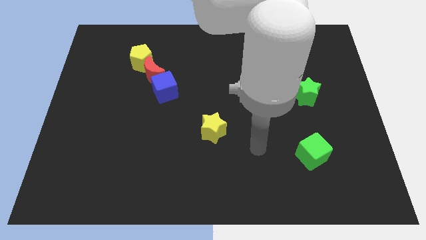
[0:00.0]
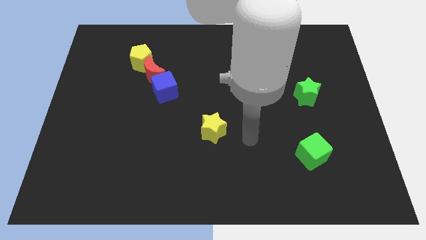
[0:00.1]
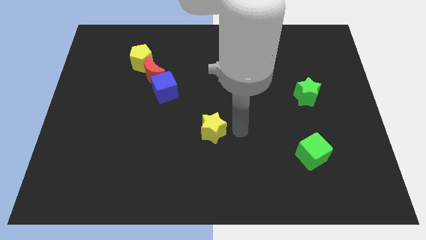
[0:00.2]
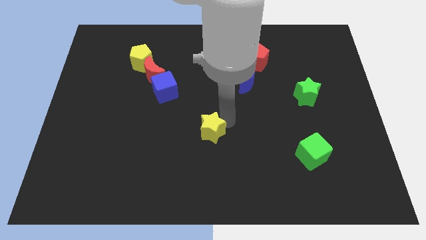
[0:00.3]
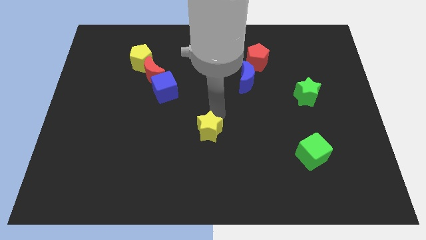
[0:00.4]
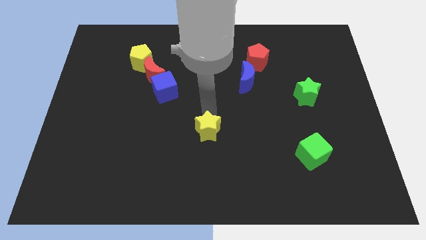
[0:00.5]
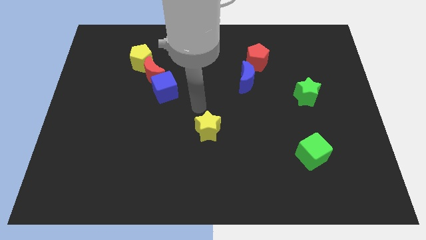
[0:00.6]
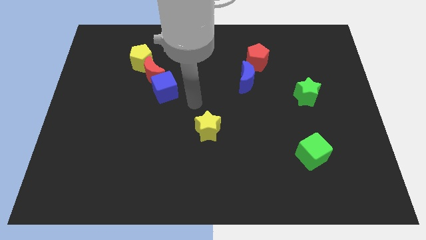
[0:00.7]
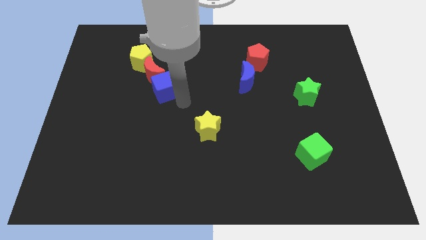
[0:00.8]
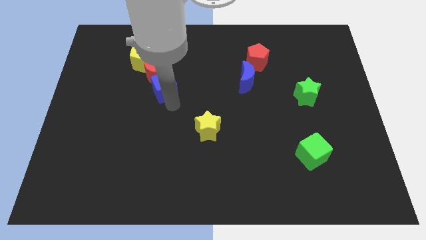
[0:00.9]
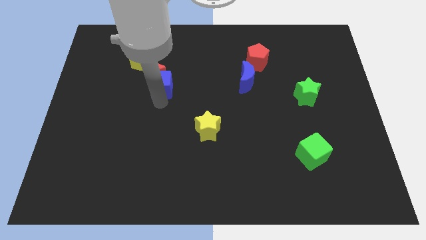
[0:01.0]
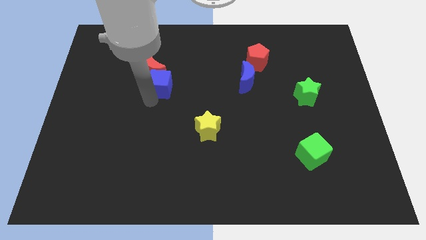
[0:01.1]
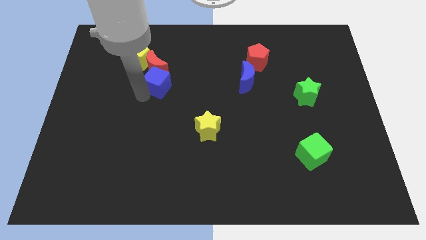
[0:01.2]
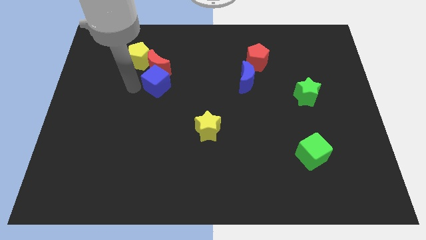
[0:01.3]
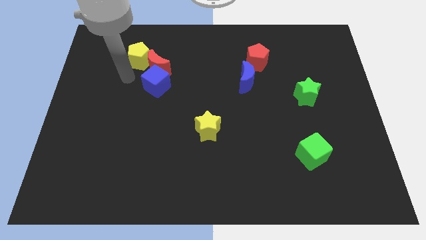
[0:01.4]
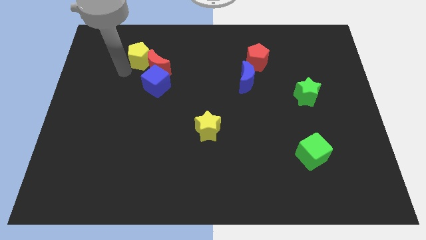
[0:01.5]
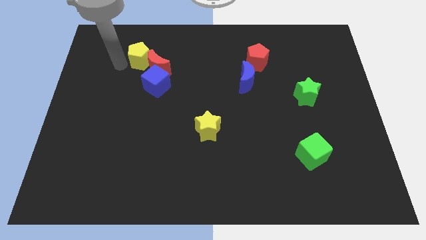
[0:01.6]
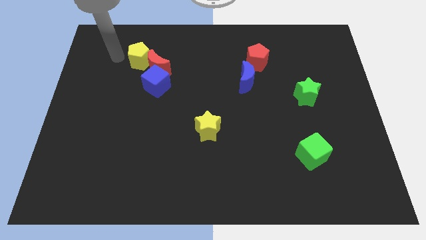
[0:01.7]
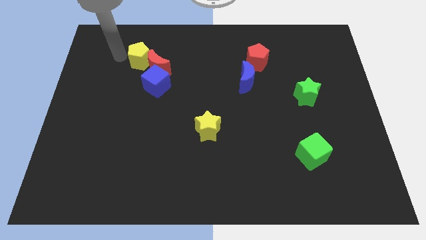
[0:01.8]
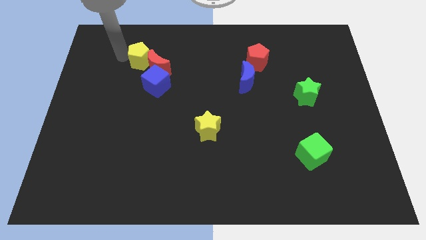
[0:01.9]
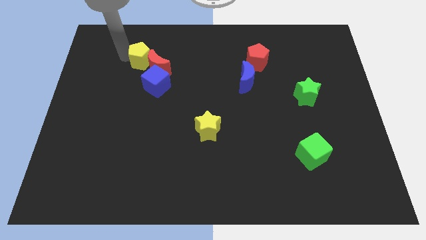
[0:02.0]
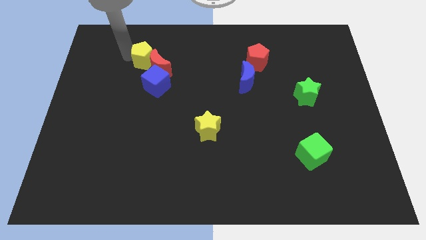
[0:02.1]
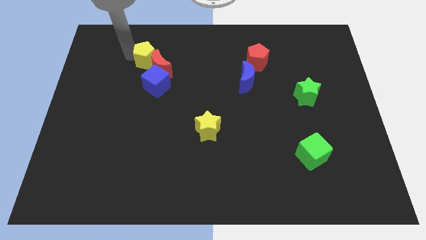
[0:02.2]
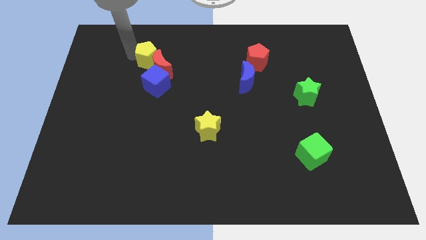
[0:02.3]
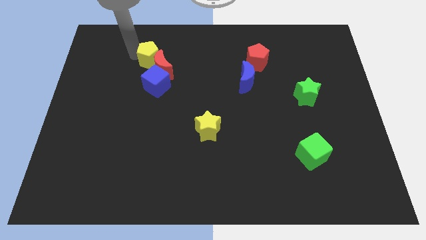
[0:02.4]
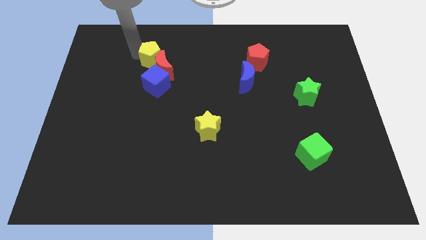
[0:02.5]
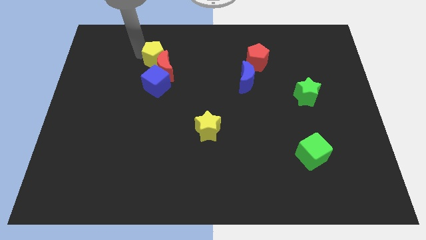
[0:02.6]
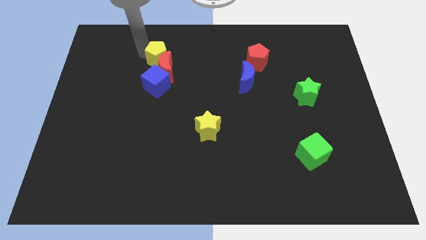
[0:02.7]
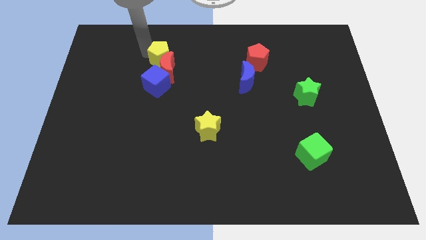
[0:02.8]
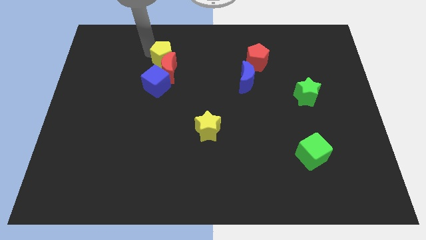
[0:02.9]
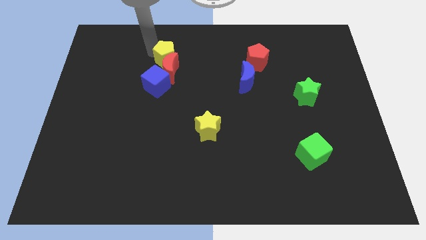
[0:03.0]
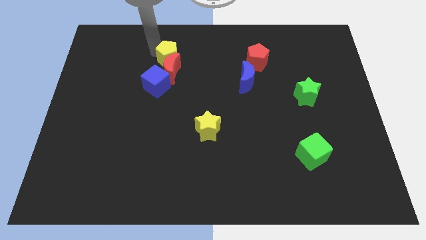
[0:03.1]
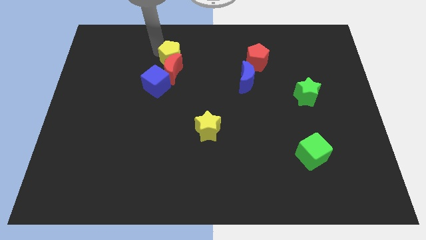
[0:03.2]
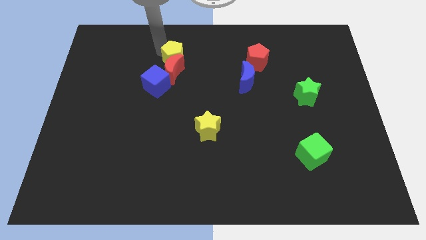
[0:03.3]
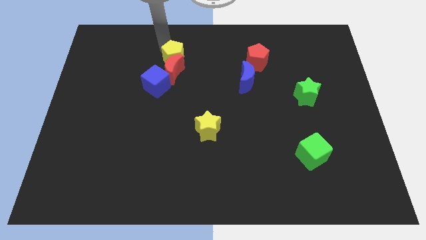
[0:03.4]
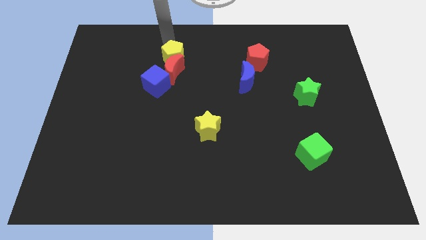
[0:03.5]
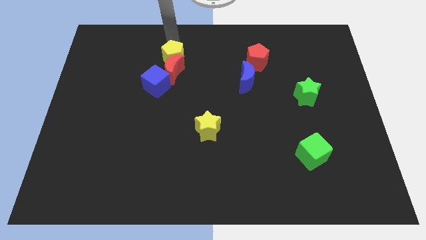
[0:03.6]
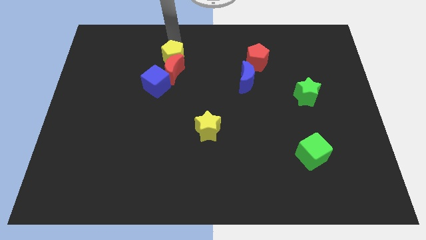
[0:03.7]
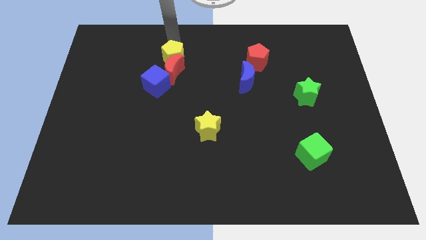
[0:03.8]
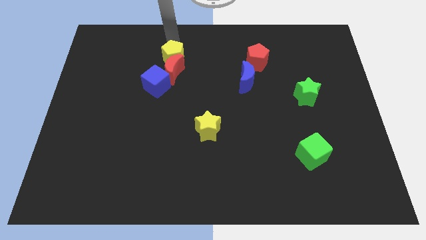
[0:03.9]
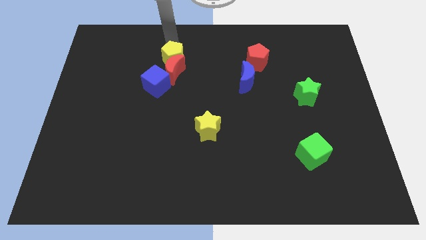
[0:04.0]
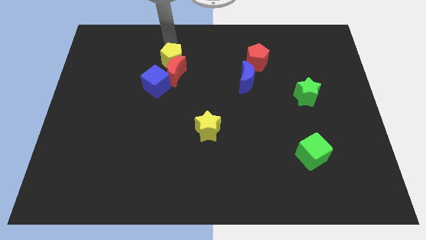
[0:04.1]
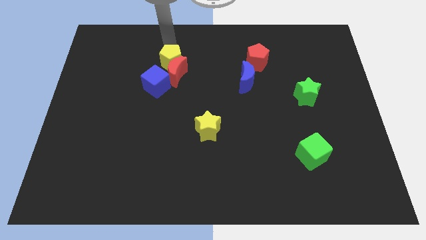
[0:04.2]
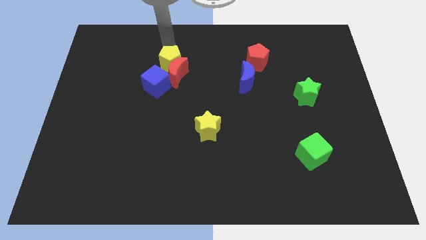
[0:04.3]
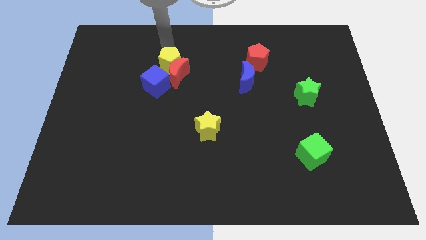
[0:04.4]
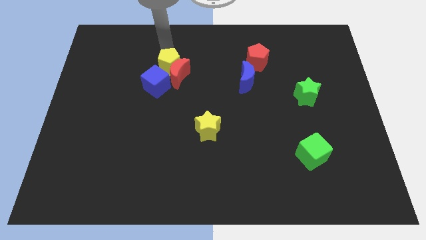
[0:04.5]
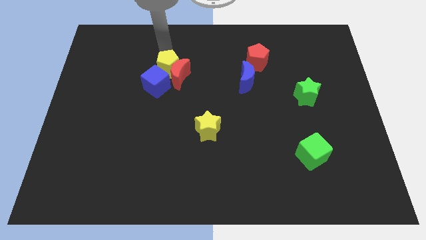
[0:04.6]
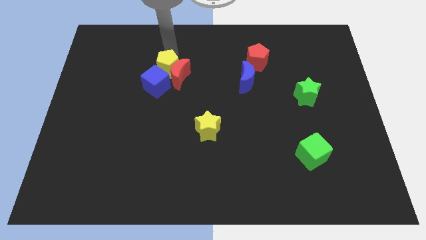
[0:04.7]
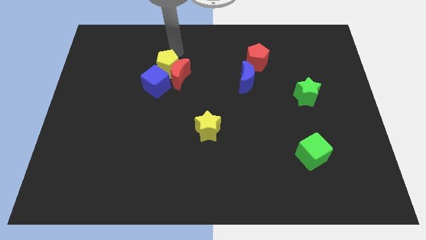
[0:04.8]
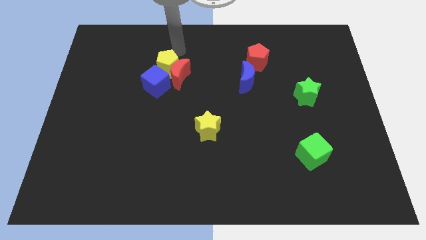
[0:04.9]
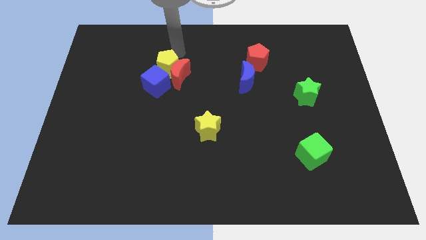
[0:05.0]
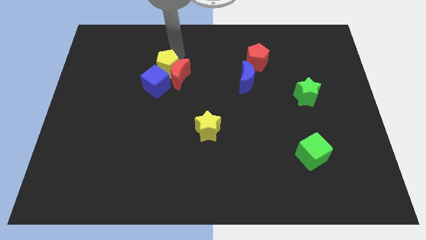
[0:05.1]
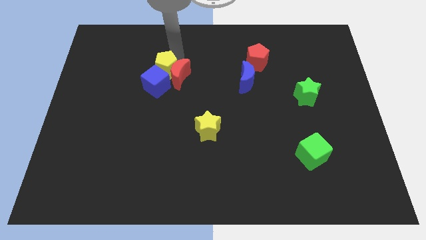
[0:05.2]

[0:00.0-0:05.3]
push the yellow pentagon to the blue cube

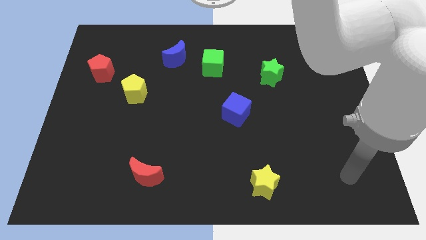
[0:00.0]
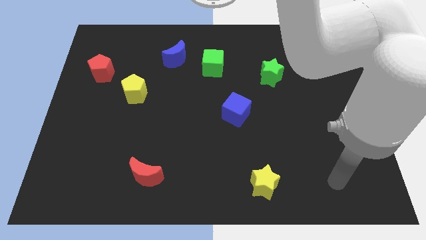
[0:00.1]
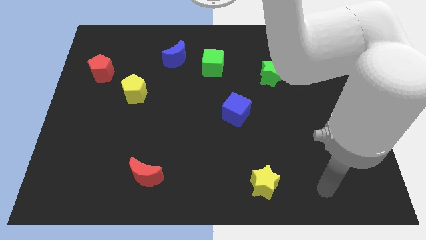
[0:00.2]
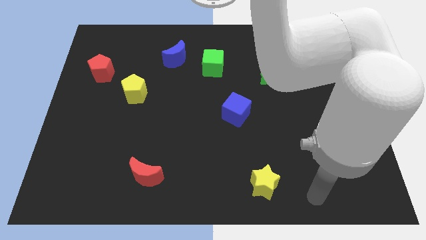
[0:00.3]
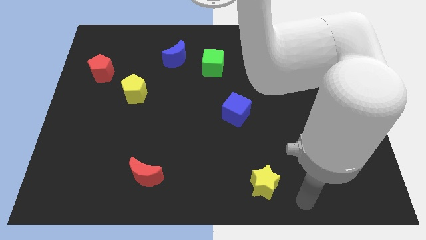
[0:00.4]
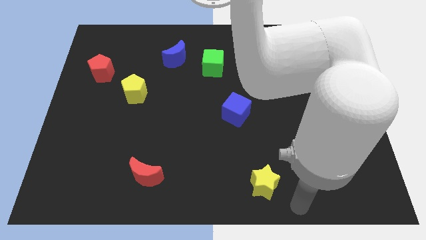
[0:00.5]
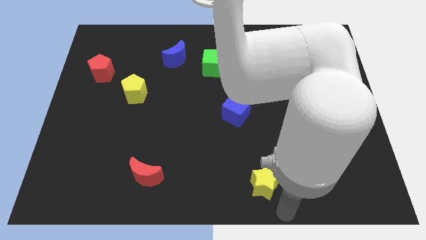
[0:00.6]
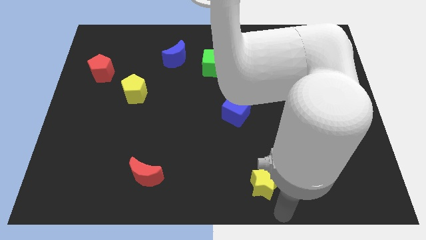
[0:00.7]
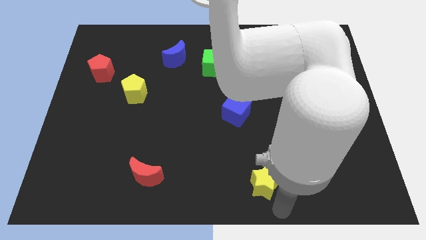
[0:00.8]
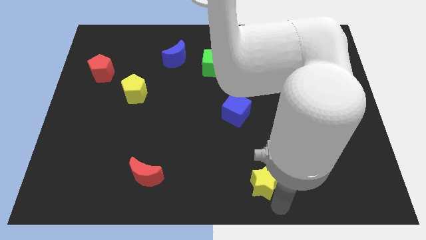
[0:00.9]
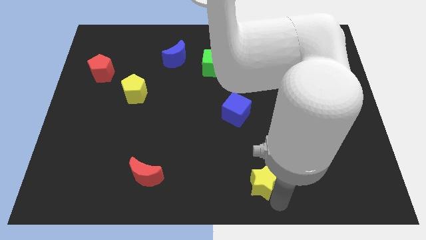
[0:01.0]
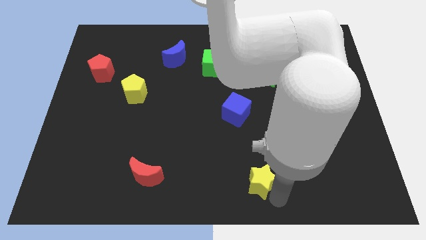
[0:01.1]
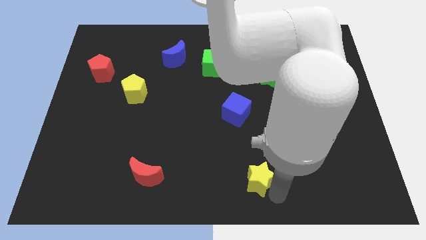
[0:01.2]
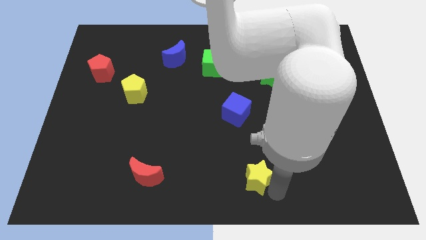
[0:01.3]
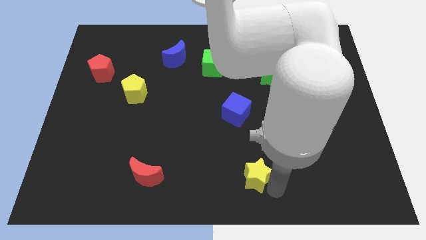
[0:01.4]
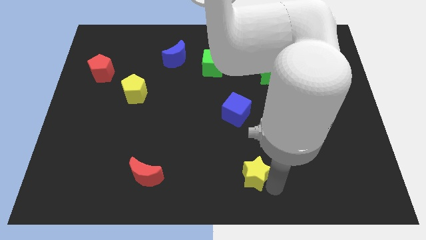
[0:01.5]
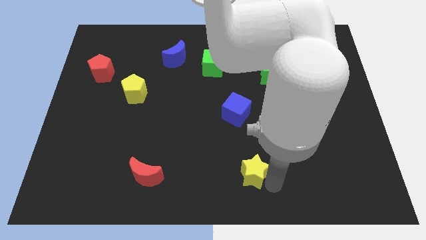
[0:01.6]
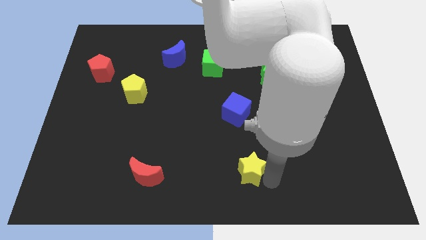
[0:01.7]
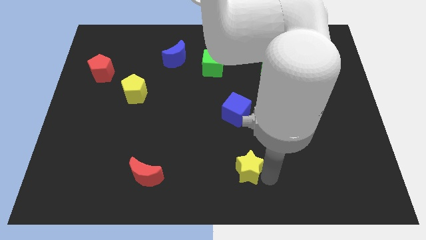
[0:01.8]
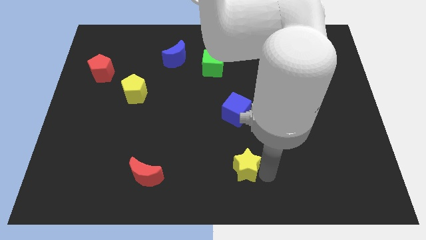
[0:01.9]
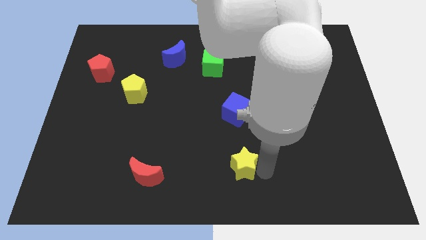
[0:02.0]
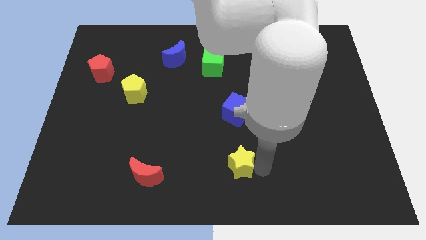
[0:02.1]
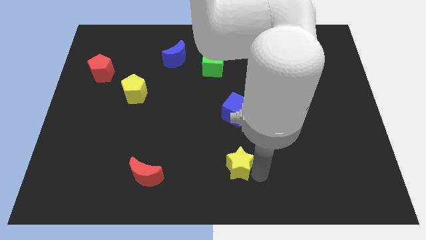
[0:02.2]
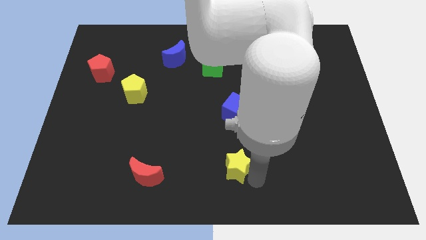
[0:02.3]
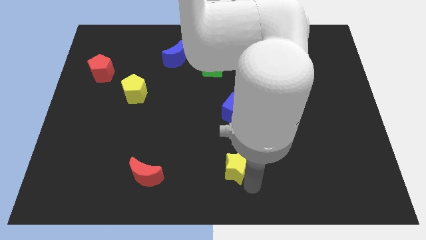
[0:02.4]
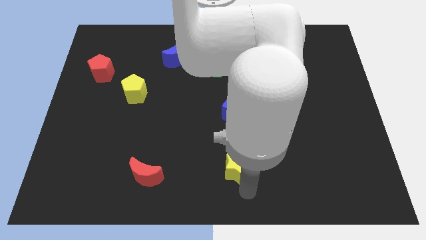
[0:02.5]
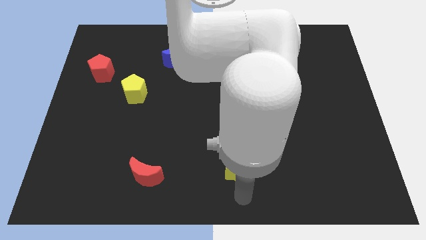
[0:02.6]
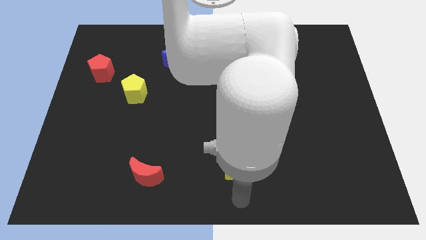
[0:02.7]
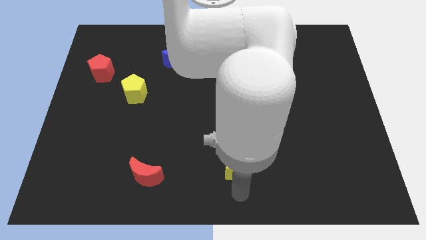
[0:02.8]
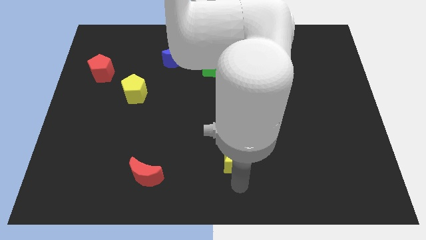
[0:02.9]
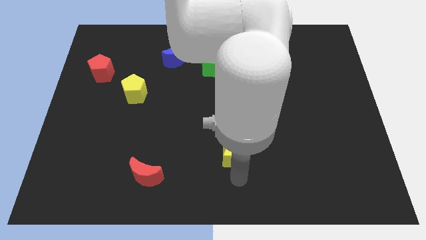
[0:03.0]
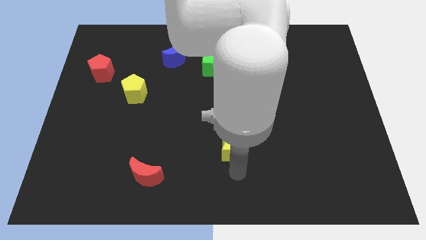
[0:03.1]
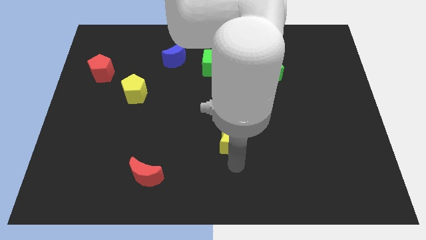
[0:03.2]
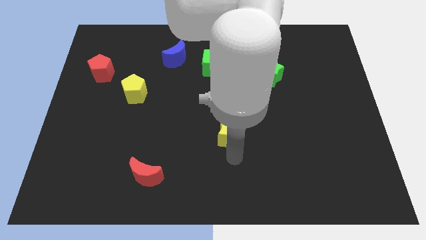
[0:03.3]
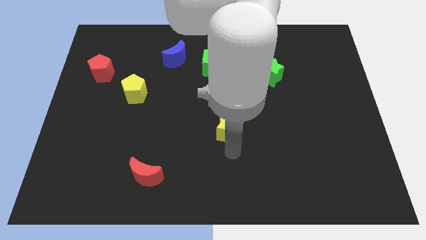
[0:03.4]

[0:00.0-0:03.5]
slide the yellow star next to the blue cube
